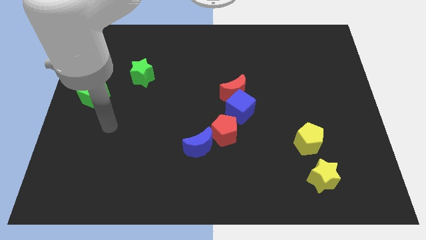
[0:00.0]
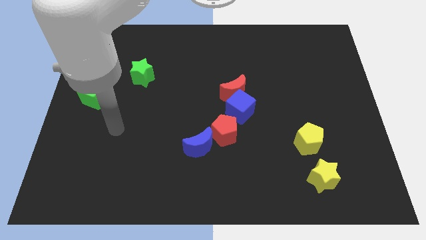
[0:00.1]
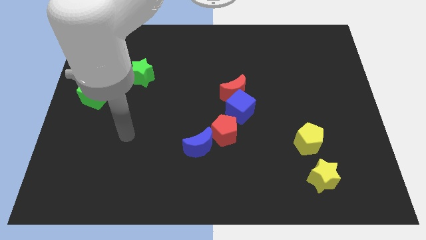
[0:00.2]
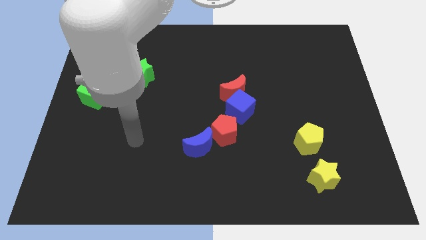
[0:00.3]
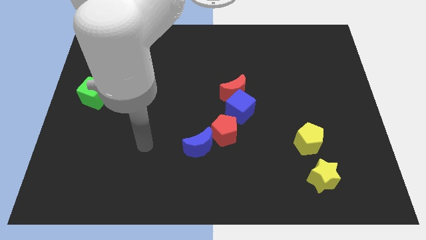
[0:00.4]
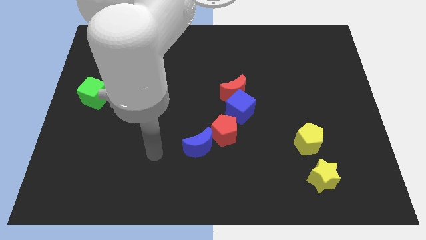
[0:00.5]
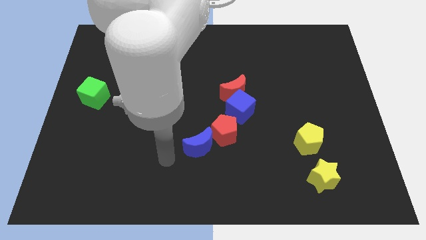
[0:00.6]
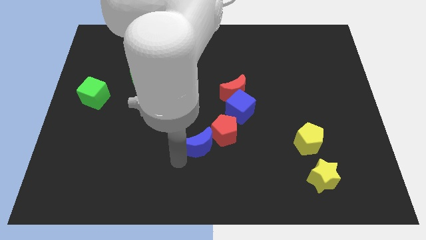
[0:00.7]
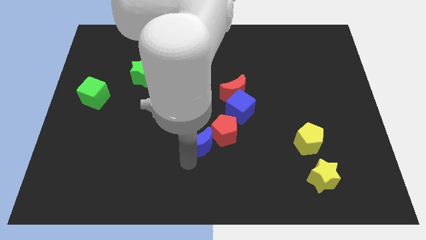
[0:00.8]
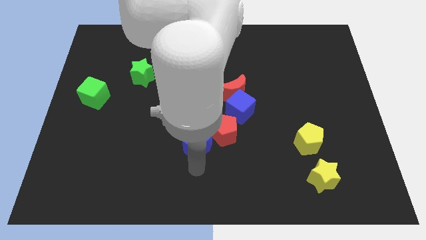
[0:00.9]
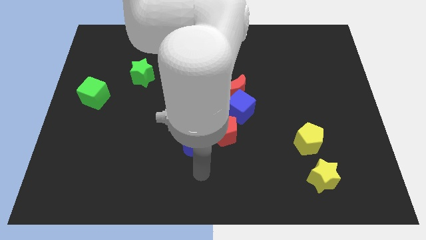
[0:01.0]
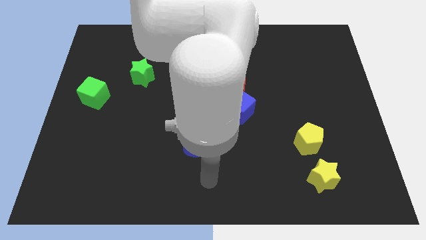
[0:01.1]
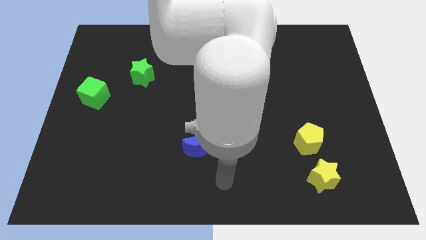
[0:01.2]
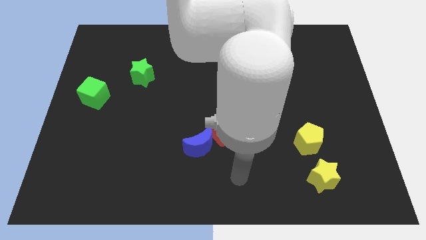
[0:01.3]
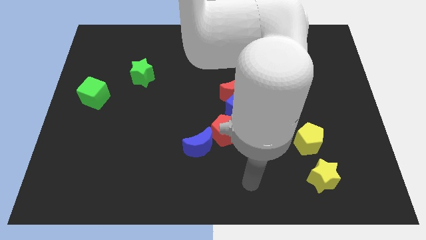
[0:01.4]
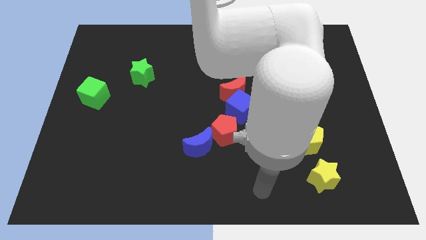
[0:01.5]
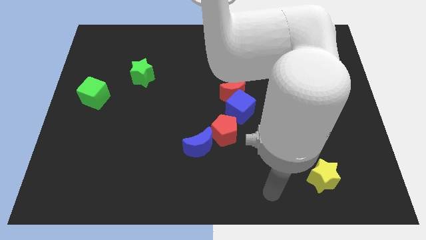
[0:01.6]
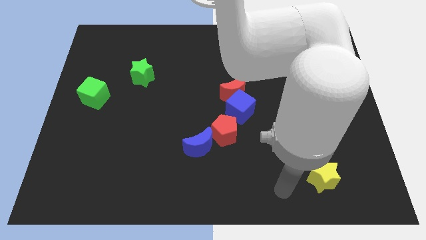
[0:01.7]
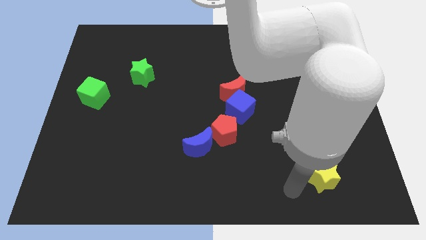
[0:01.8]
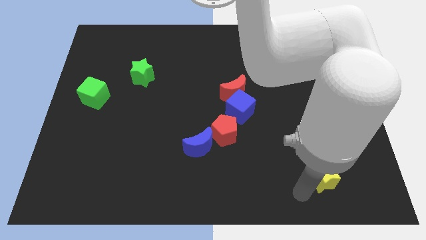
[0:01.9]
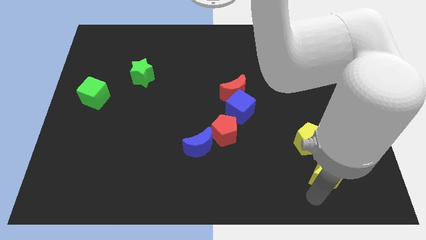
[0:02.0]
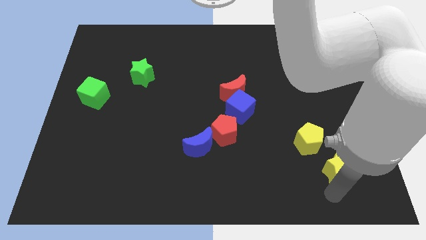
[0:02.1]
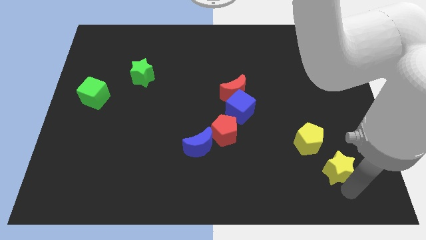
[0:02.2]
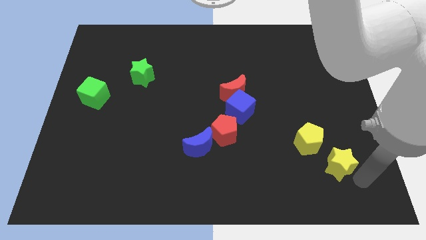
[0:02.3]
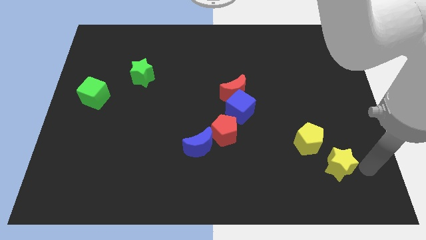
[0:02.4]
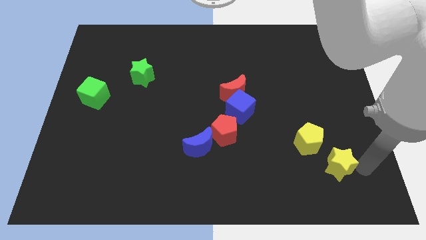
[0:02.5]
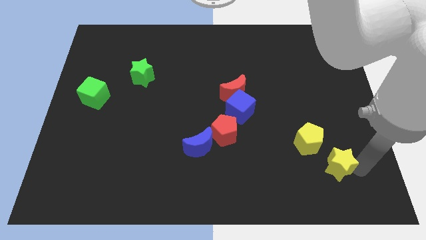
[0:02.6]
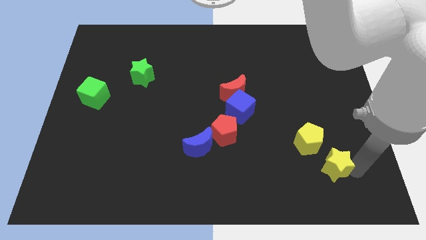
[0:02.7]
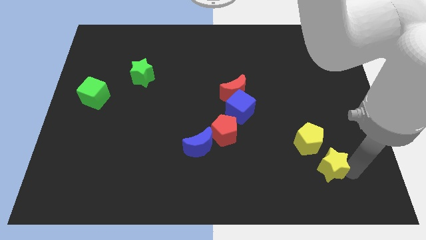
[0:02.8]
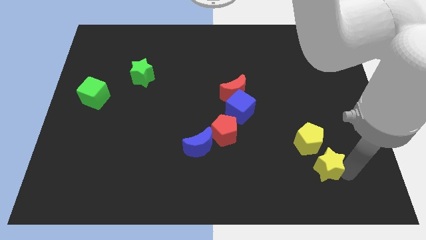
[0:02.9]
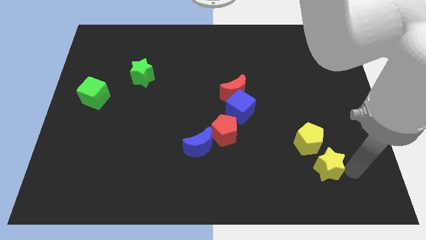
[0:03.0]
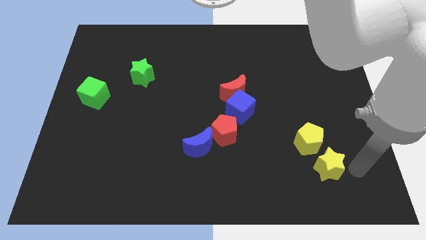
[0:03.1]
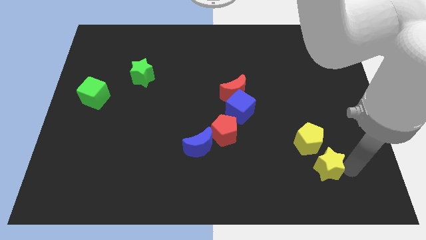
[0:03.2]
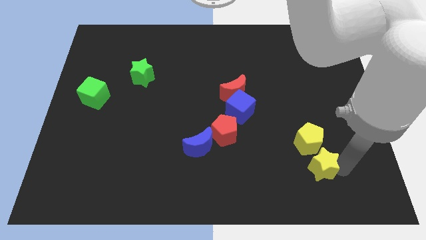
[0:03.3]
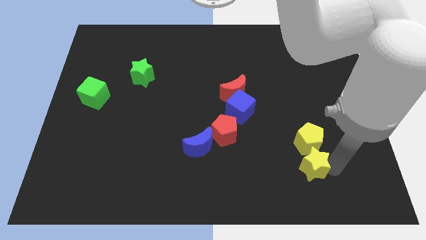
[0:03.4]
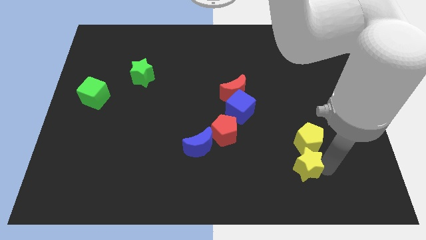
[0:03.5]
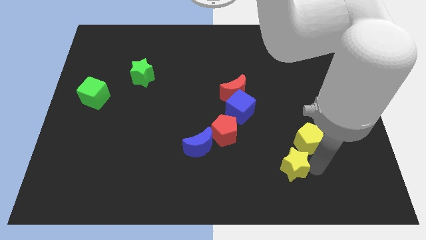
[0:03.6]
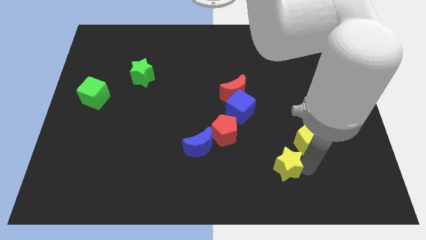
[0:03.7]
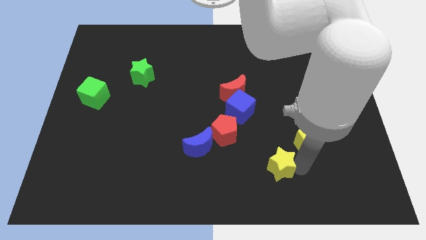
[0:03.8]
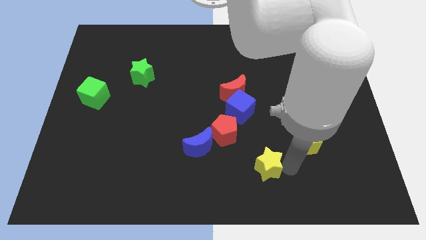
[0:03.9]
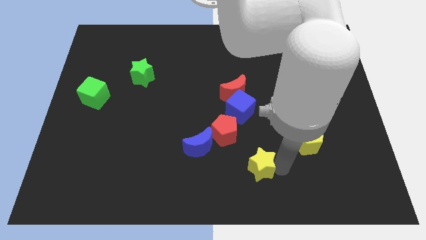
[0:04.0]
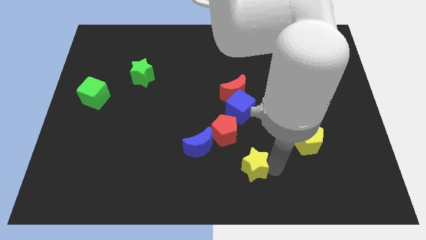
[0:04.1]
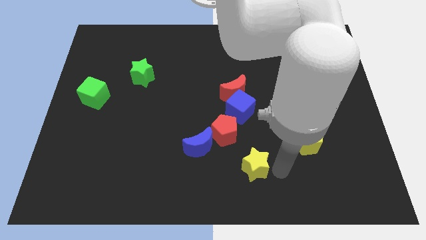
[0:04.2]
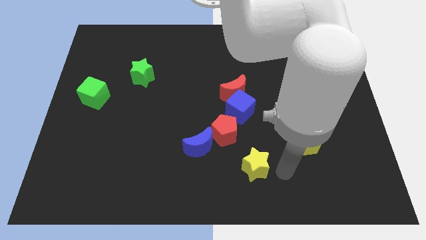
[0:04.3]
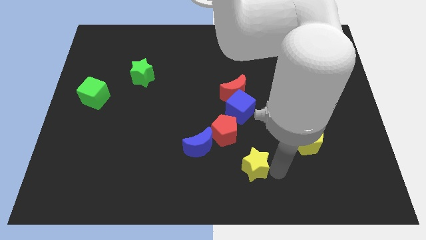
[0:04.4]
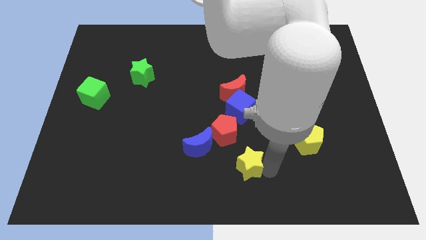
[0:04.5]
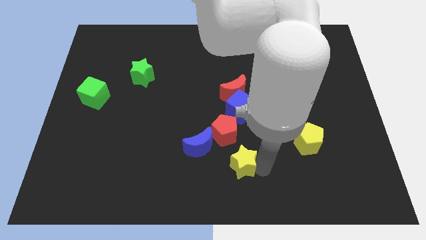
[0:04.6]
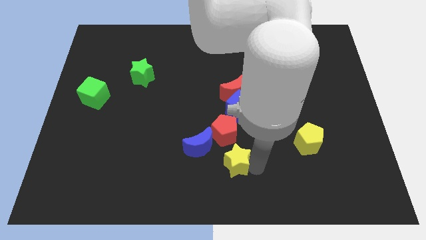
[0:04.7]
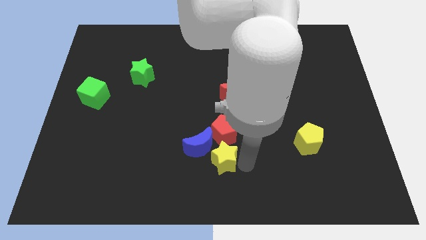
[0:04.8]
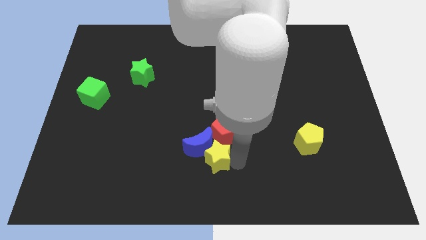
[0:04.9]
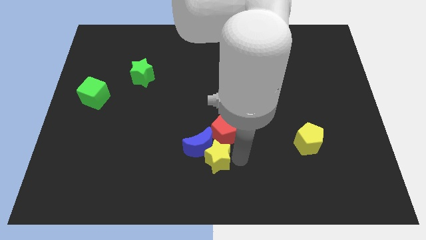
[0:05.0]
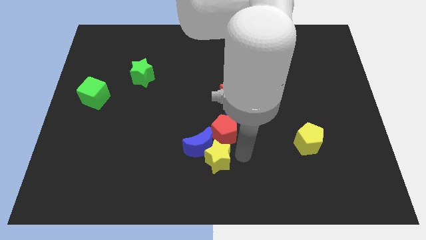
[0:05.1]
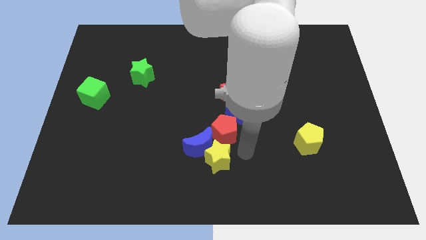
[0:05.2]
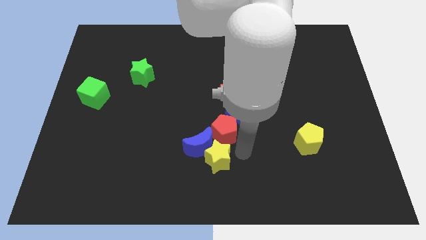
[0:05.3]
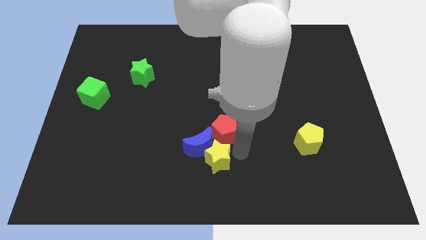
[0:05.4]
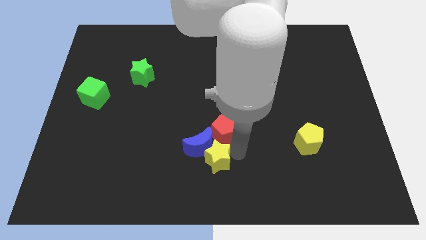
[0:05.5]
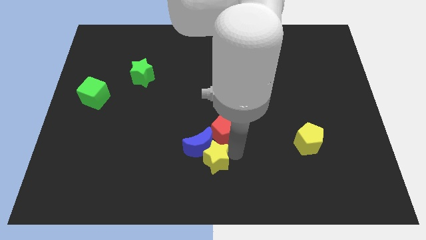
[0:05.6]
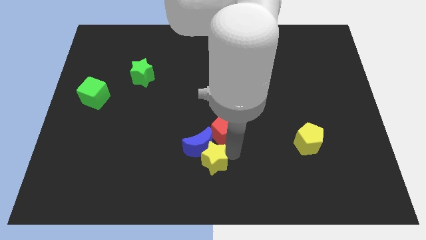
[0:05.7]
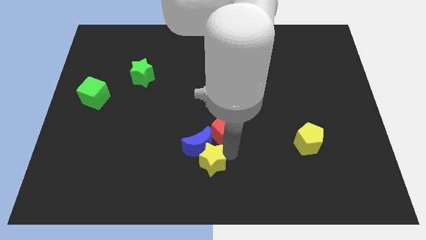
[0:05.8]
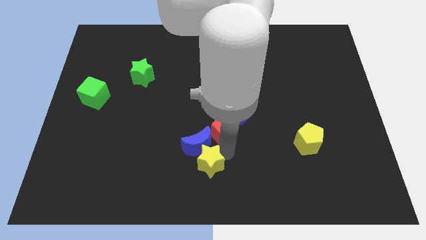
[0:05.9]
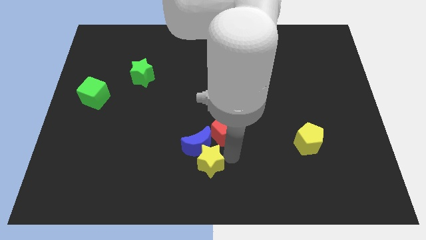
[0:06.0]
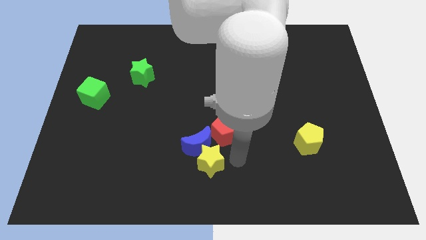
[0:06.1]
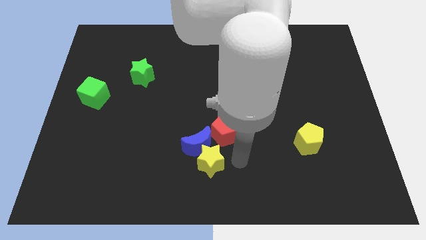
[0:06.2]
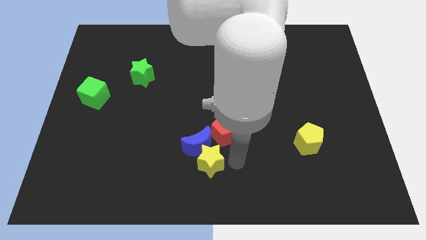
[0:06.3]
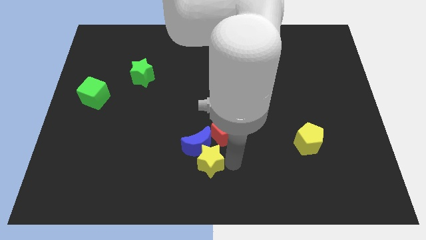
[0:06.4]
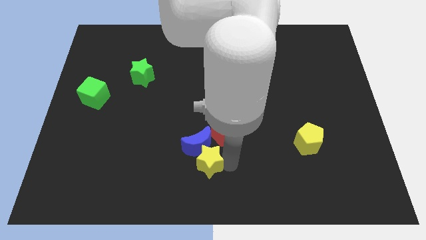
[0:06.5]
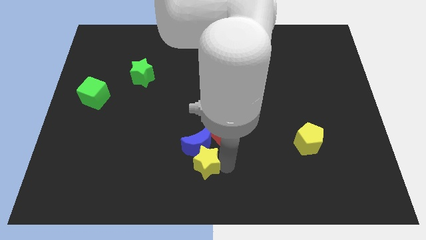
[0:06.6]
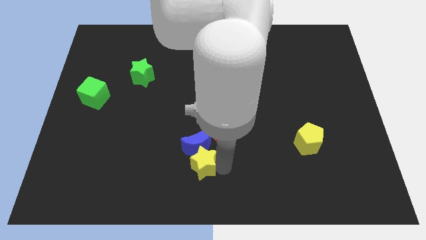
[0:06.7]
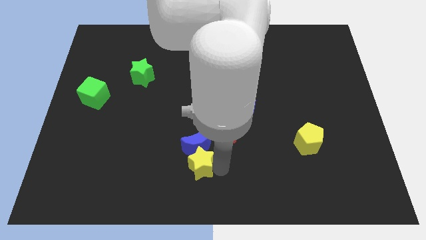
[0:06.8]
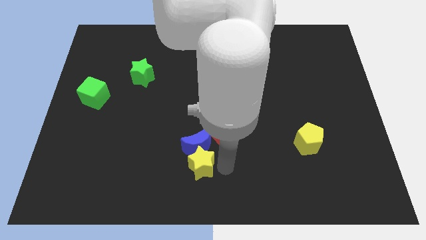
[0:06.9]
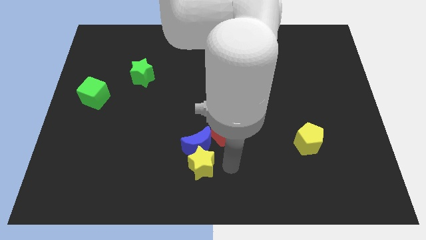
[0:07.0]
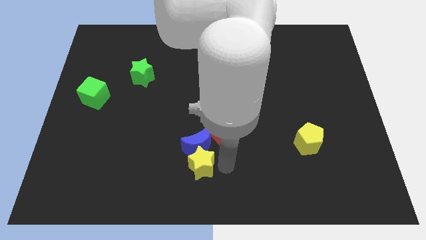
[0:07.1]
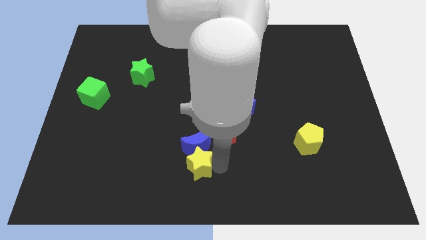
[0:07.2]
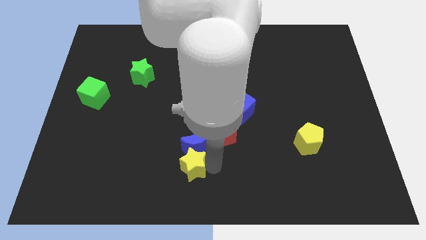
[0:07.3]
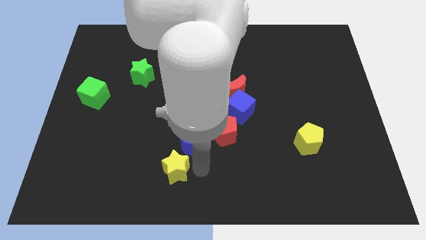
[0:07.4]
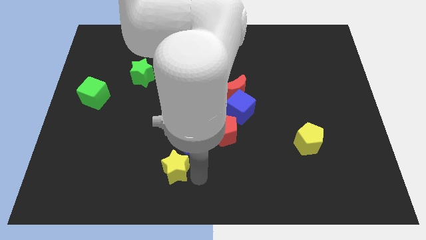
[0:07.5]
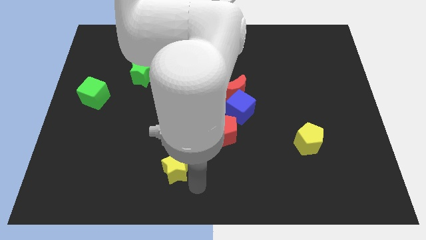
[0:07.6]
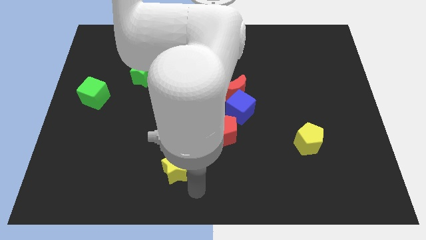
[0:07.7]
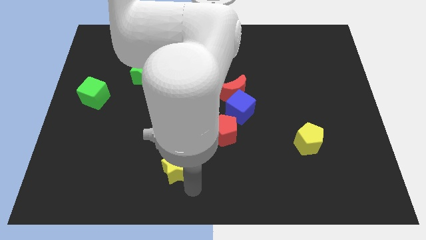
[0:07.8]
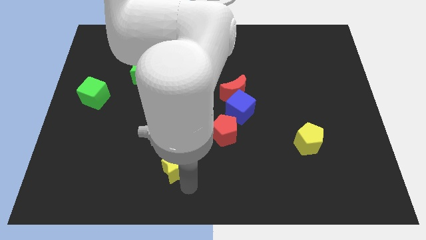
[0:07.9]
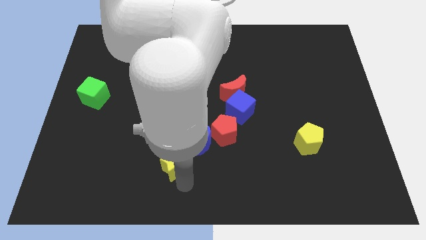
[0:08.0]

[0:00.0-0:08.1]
put the yellow star to the left side of the blue moon
